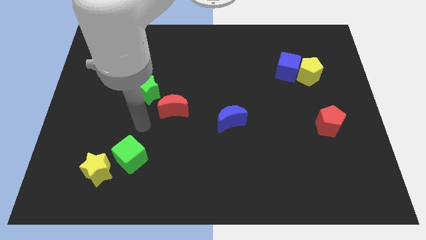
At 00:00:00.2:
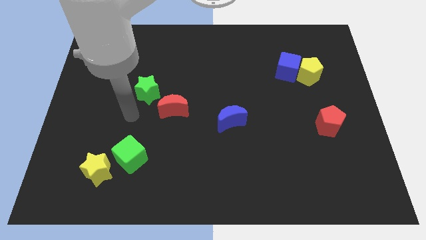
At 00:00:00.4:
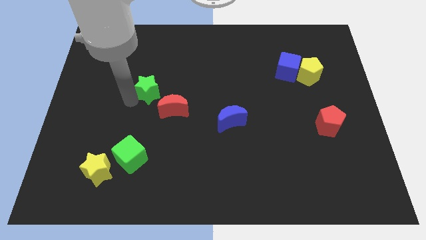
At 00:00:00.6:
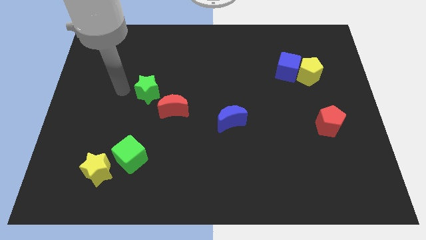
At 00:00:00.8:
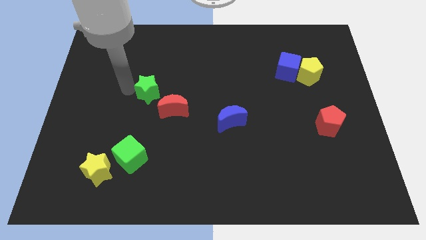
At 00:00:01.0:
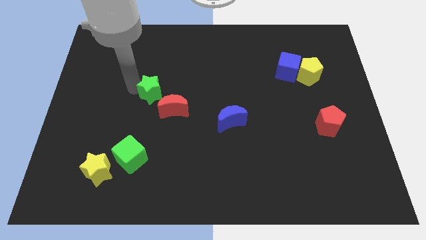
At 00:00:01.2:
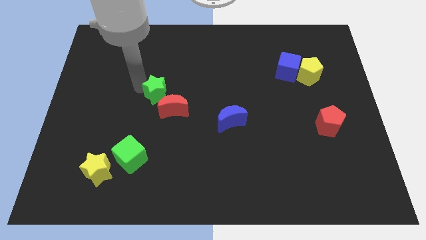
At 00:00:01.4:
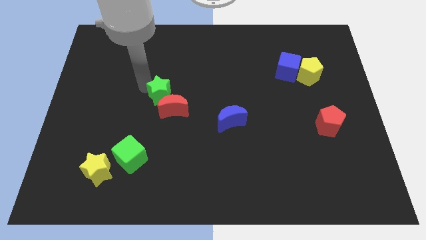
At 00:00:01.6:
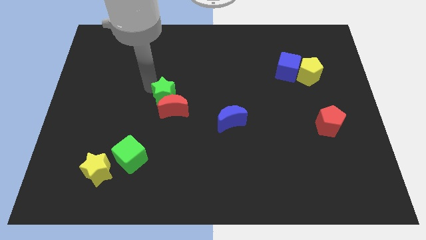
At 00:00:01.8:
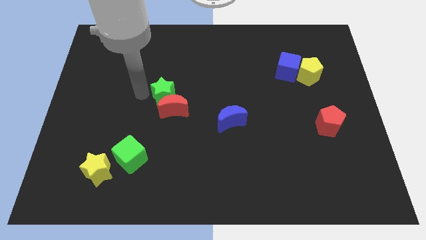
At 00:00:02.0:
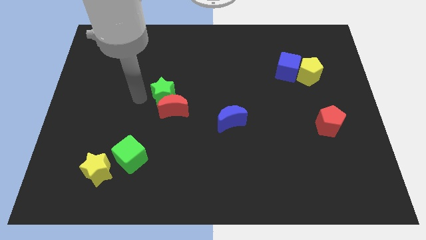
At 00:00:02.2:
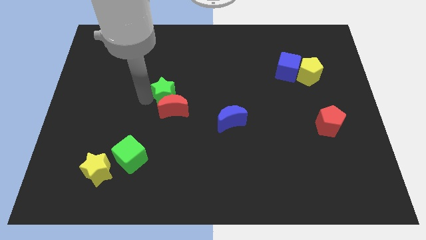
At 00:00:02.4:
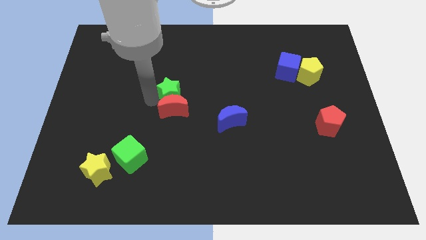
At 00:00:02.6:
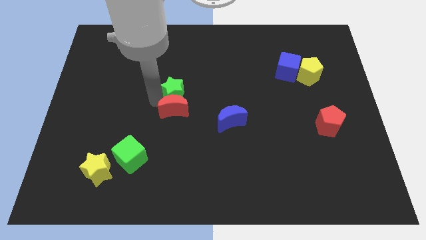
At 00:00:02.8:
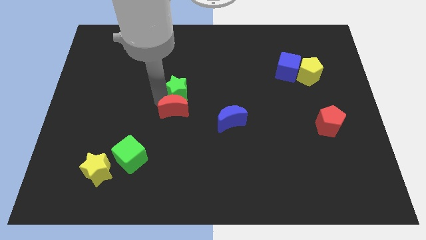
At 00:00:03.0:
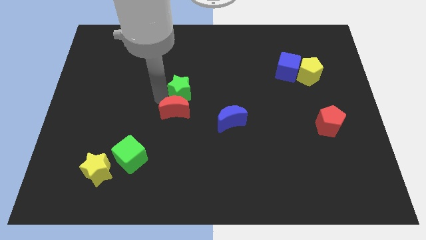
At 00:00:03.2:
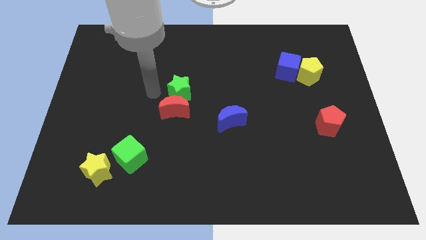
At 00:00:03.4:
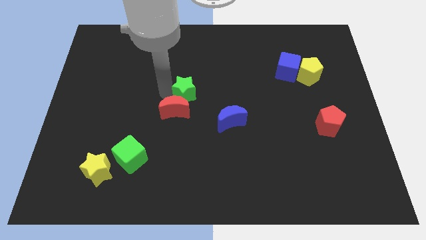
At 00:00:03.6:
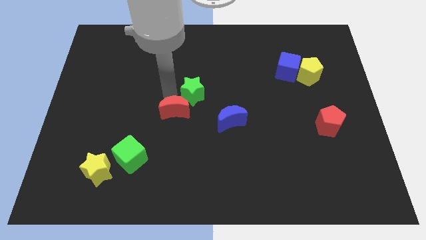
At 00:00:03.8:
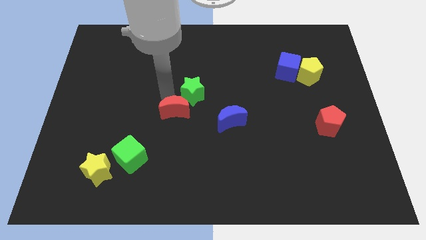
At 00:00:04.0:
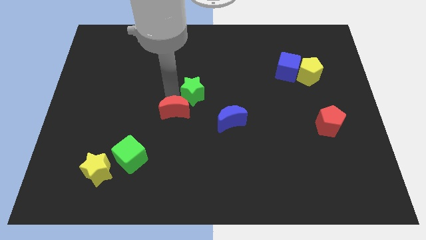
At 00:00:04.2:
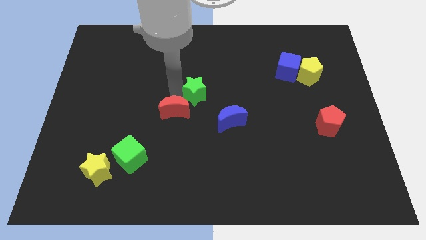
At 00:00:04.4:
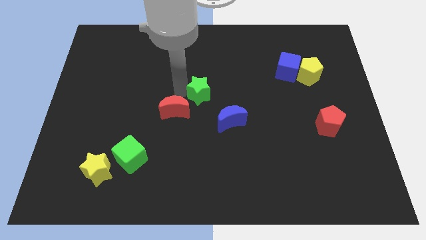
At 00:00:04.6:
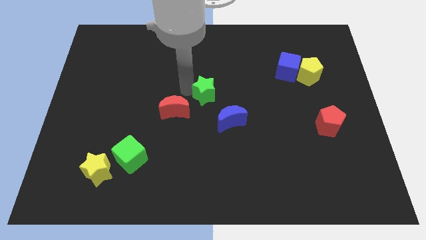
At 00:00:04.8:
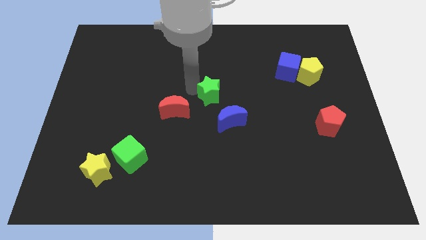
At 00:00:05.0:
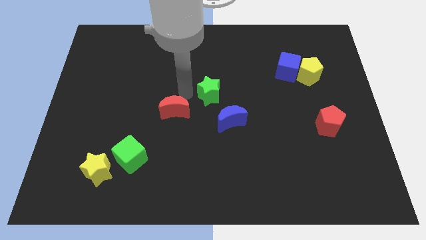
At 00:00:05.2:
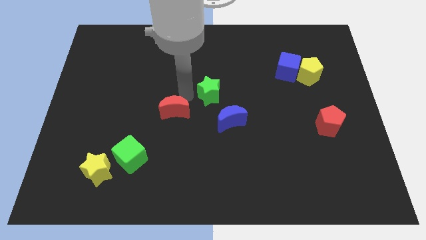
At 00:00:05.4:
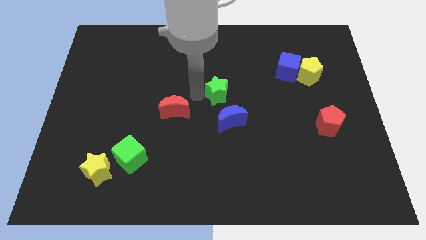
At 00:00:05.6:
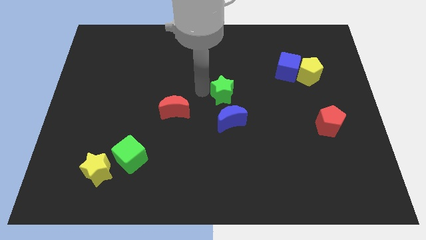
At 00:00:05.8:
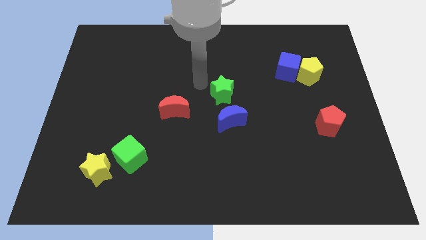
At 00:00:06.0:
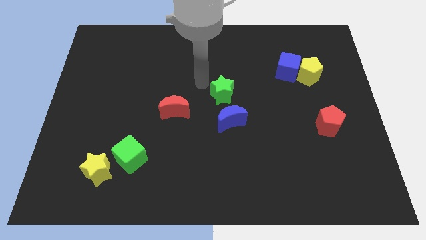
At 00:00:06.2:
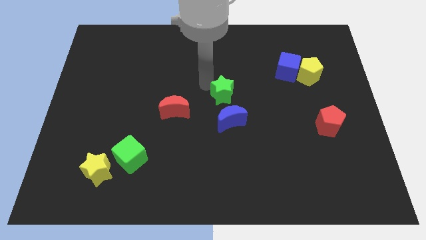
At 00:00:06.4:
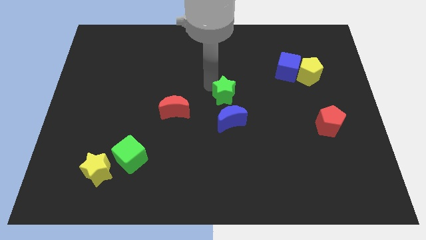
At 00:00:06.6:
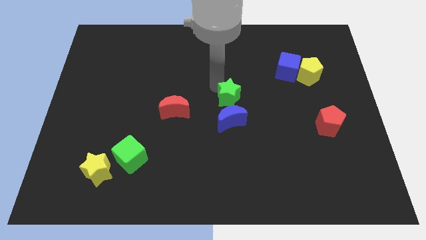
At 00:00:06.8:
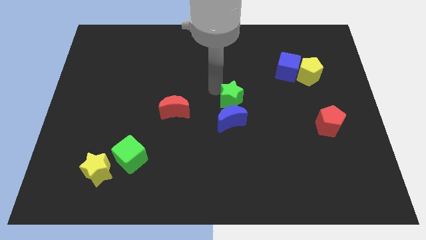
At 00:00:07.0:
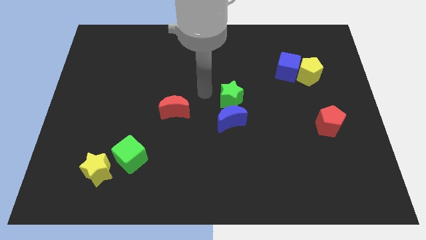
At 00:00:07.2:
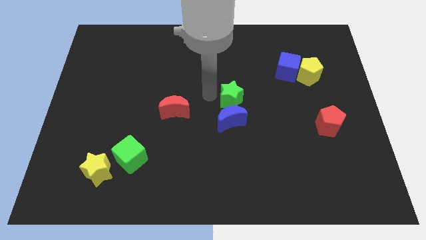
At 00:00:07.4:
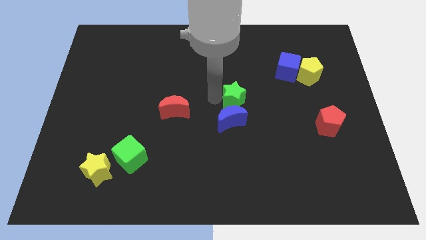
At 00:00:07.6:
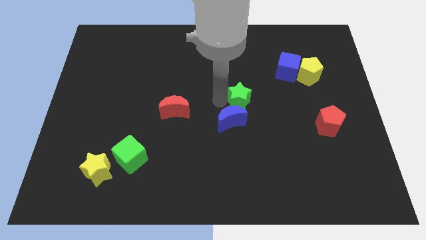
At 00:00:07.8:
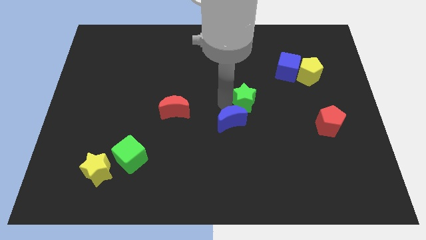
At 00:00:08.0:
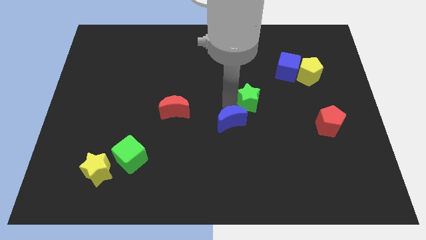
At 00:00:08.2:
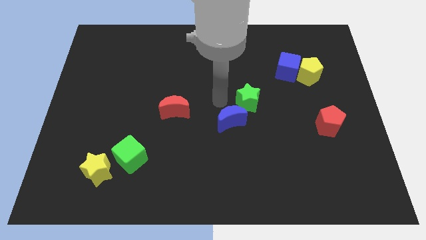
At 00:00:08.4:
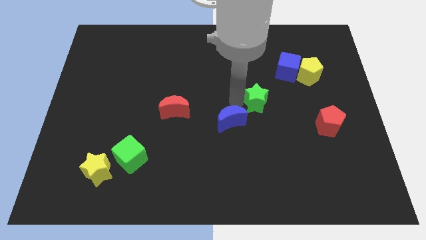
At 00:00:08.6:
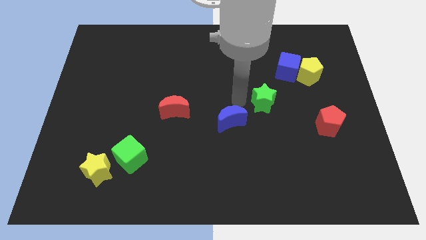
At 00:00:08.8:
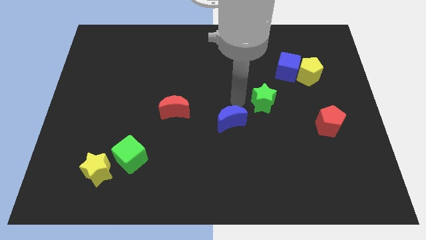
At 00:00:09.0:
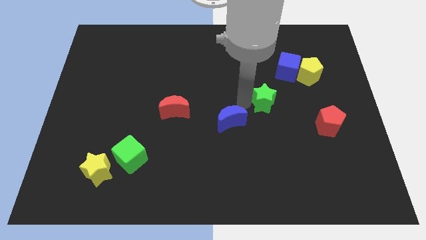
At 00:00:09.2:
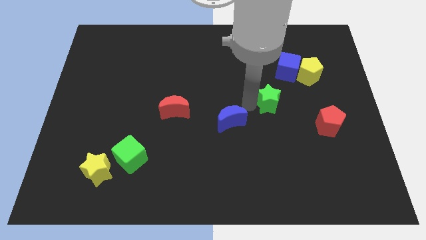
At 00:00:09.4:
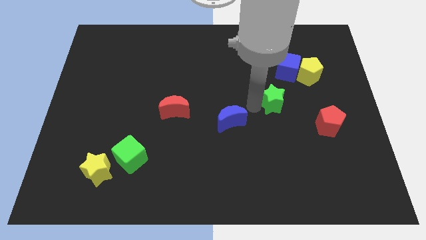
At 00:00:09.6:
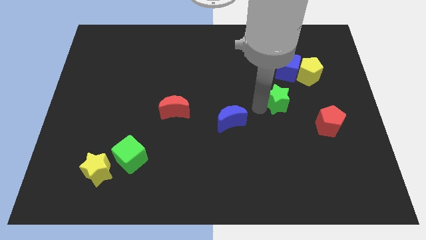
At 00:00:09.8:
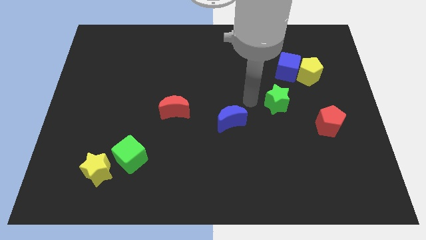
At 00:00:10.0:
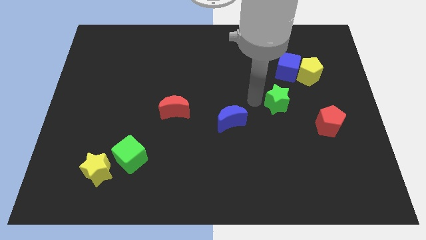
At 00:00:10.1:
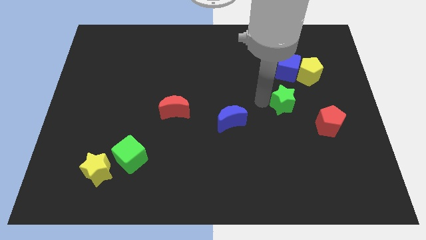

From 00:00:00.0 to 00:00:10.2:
push the green star diagonally up and to the left of the red pentagon

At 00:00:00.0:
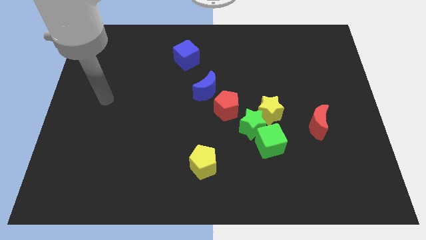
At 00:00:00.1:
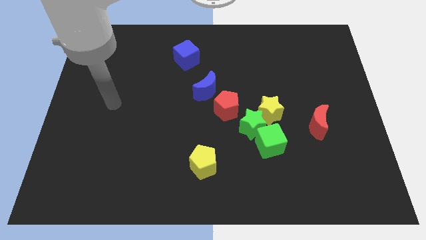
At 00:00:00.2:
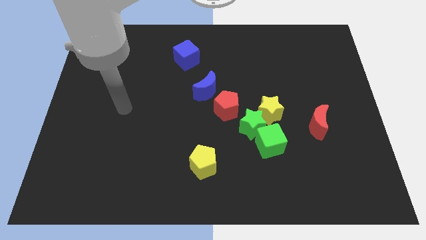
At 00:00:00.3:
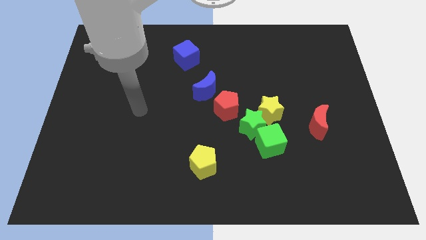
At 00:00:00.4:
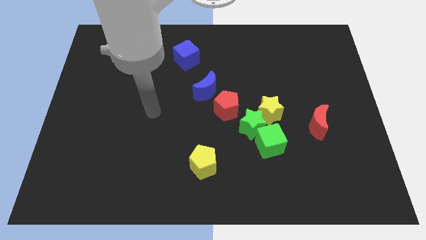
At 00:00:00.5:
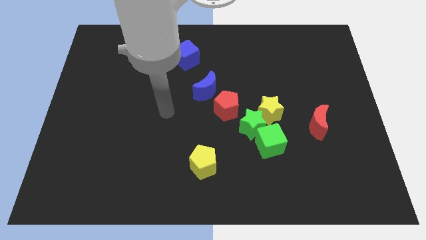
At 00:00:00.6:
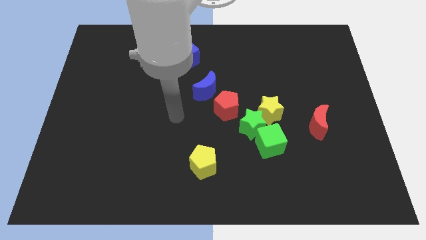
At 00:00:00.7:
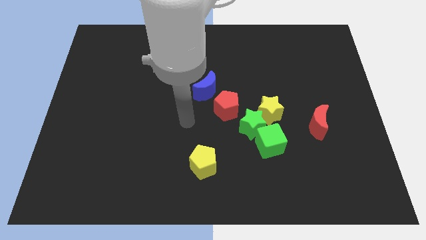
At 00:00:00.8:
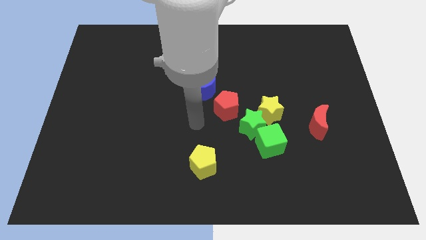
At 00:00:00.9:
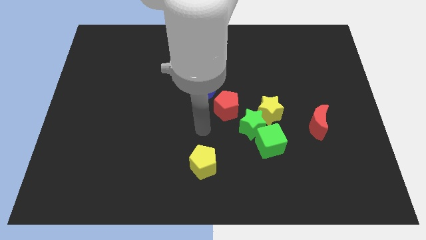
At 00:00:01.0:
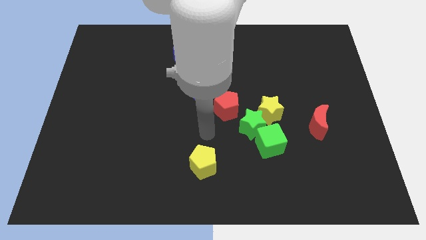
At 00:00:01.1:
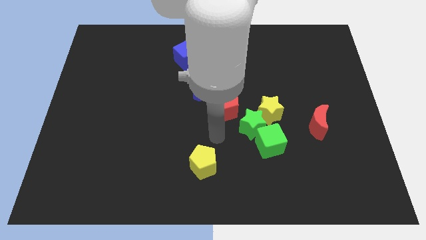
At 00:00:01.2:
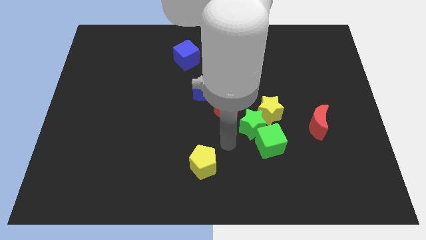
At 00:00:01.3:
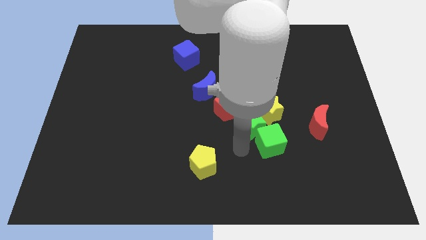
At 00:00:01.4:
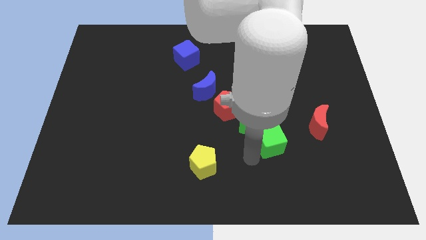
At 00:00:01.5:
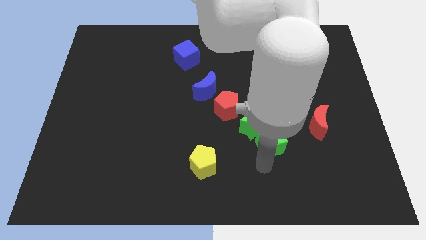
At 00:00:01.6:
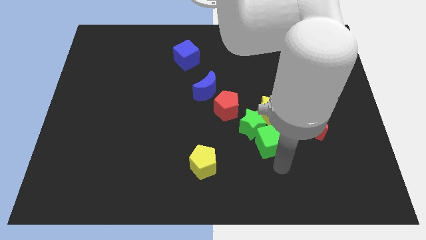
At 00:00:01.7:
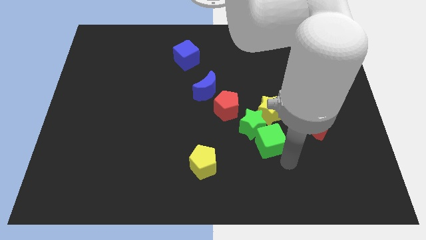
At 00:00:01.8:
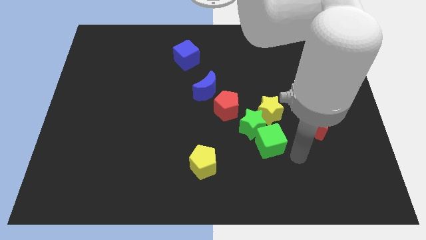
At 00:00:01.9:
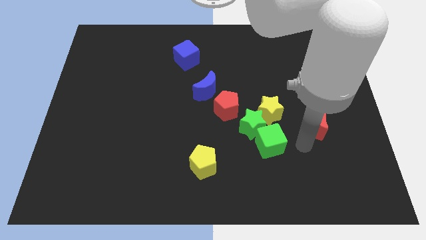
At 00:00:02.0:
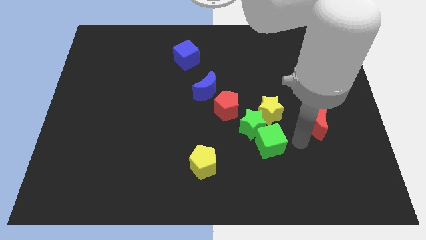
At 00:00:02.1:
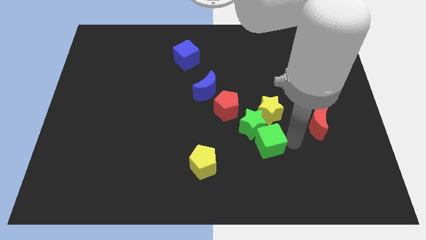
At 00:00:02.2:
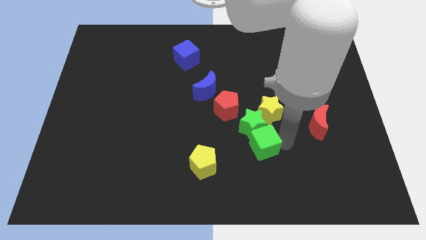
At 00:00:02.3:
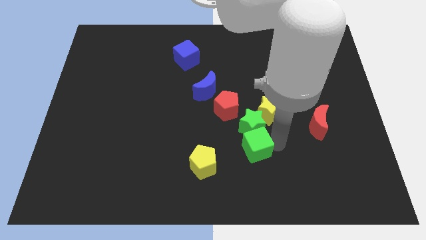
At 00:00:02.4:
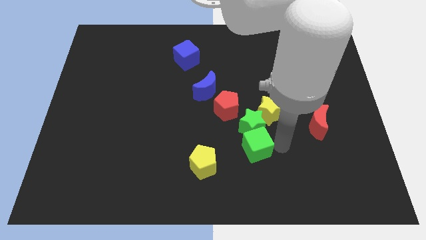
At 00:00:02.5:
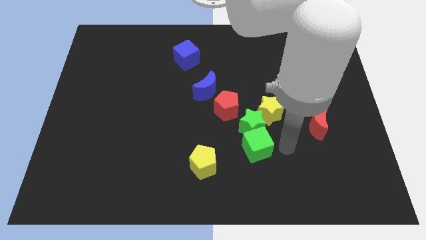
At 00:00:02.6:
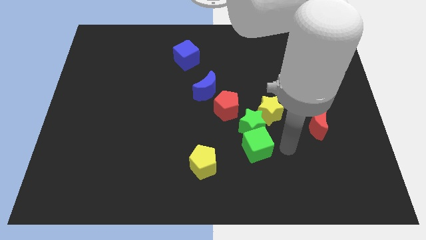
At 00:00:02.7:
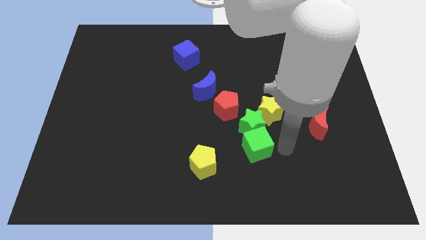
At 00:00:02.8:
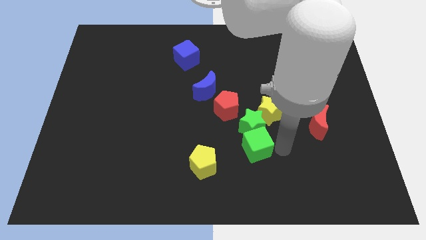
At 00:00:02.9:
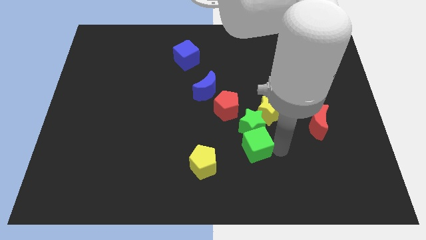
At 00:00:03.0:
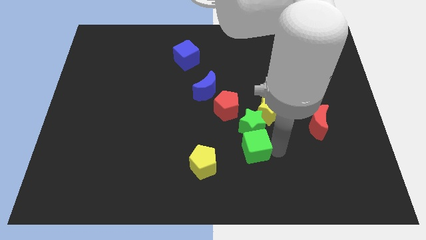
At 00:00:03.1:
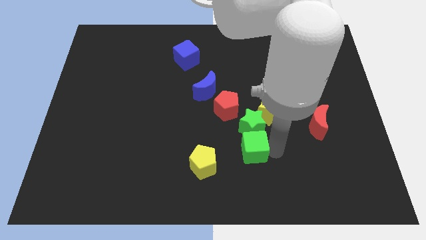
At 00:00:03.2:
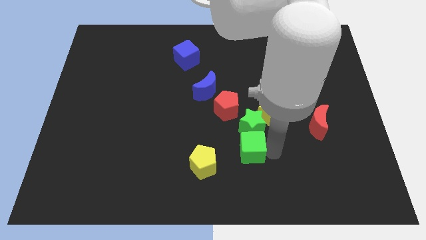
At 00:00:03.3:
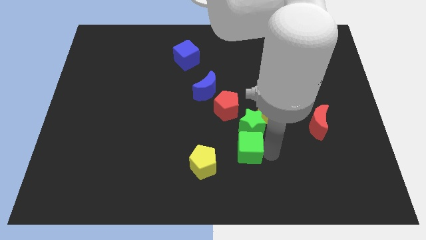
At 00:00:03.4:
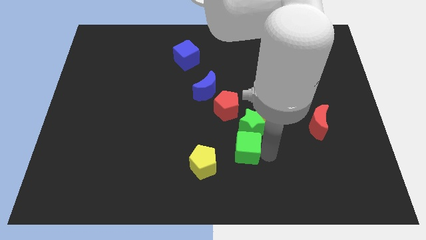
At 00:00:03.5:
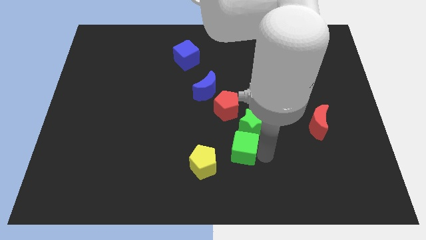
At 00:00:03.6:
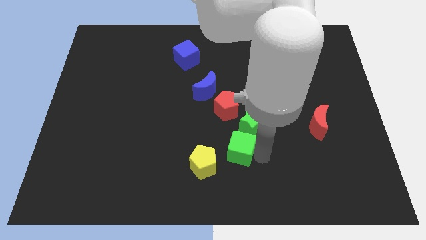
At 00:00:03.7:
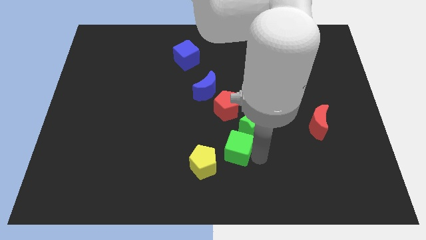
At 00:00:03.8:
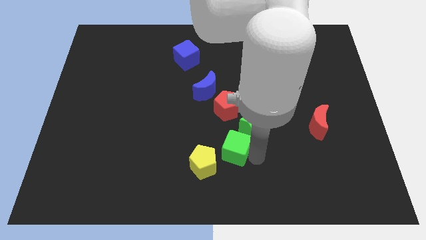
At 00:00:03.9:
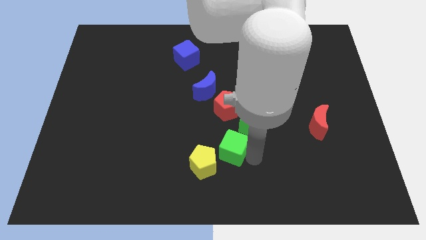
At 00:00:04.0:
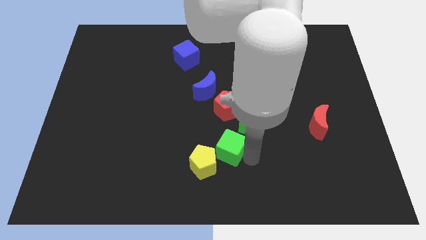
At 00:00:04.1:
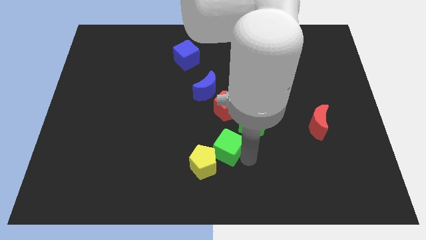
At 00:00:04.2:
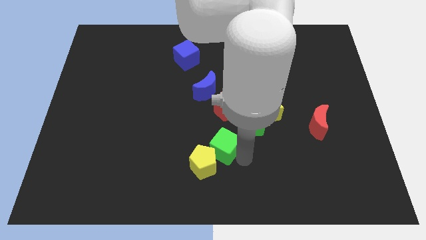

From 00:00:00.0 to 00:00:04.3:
push the green cube to the top of the yellow pentagon
